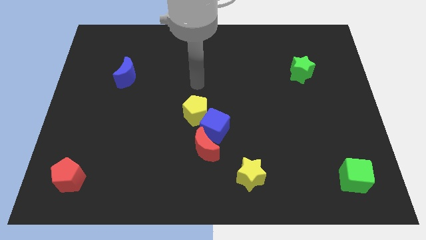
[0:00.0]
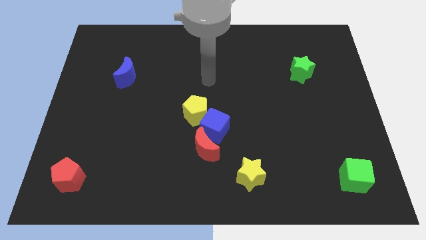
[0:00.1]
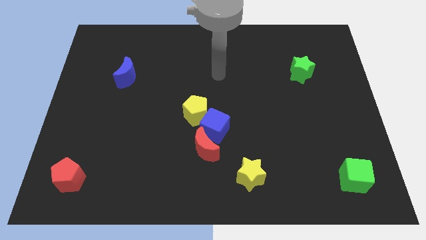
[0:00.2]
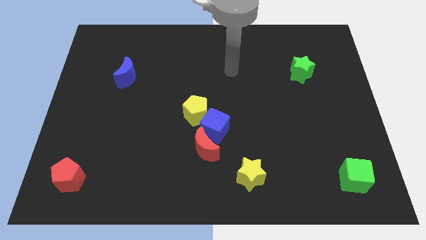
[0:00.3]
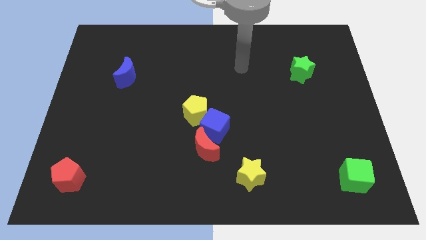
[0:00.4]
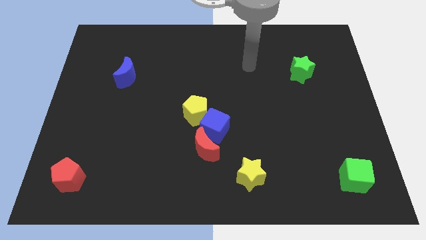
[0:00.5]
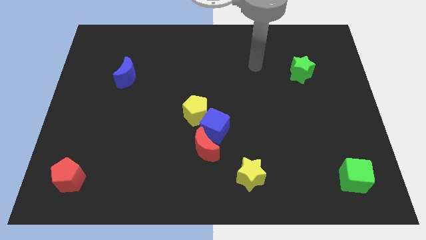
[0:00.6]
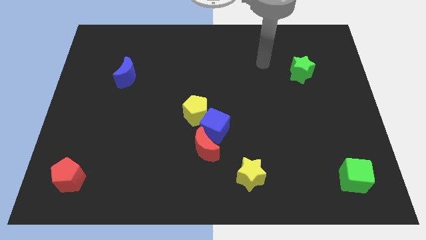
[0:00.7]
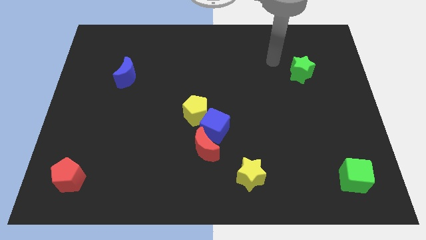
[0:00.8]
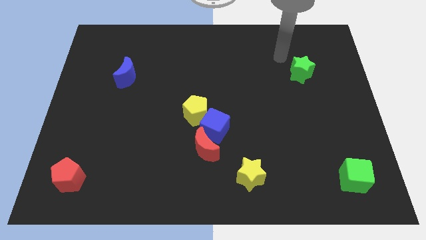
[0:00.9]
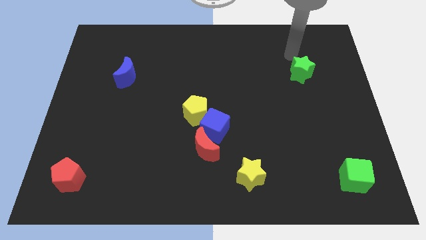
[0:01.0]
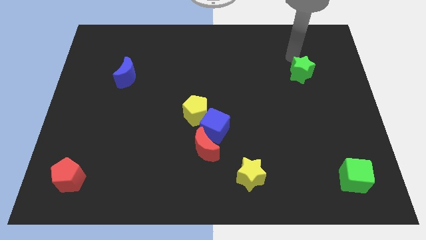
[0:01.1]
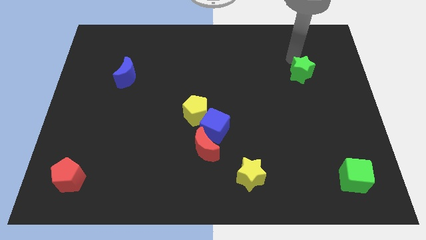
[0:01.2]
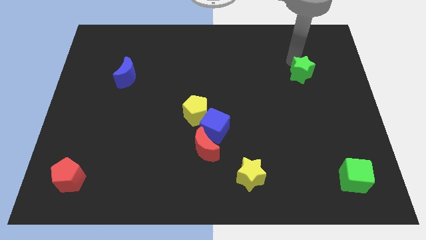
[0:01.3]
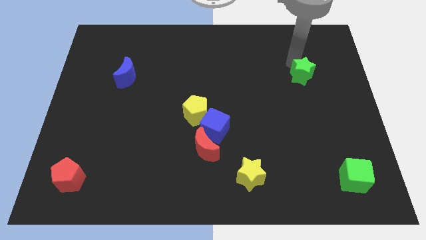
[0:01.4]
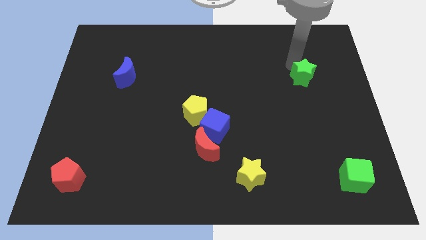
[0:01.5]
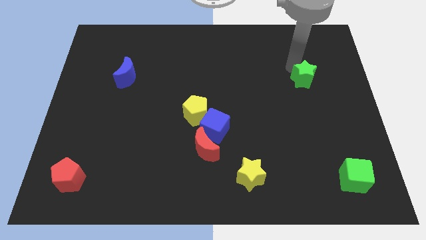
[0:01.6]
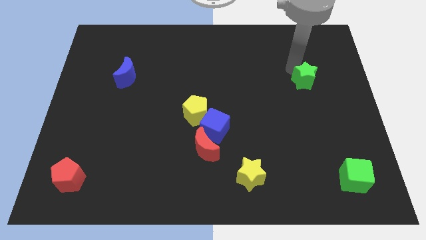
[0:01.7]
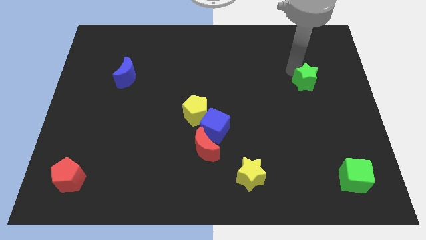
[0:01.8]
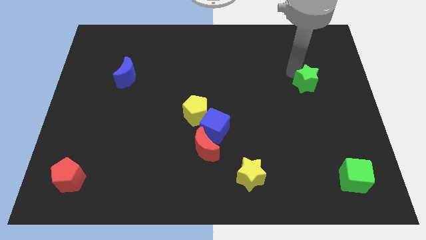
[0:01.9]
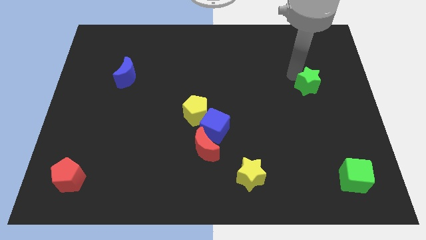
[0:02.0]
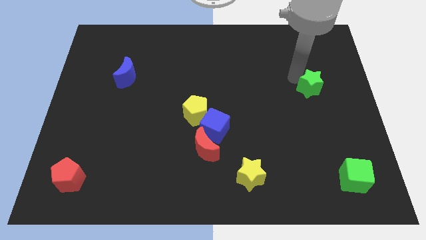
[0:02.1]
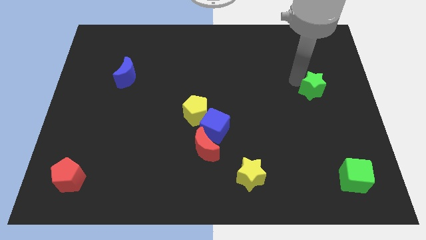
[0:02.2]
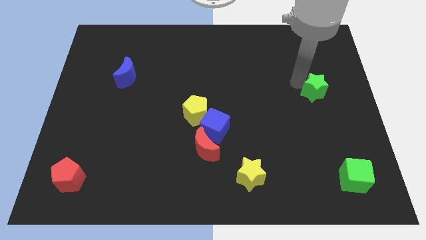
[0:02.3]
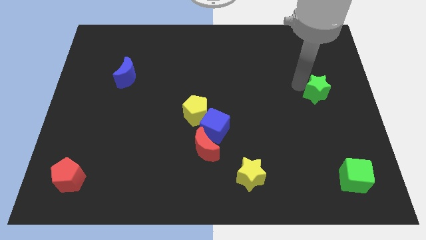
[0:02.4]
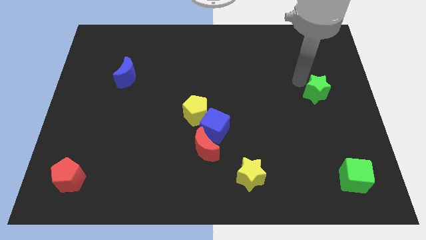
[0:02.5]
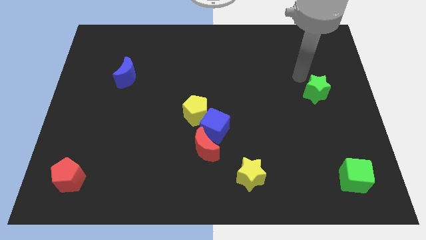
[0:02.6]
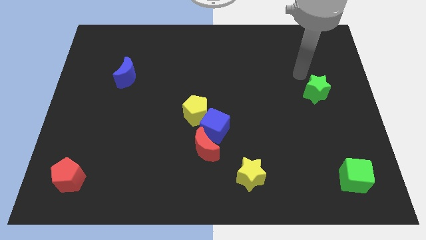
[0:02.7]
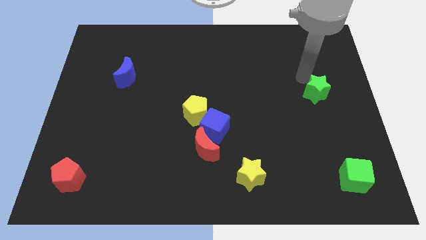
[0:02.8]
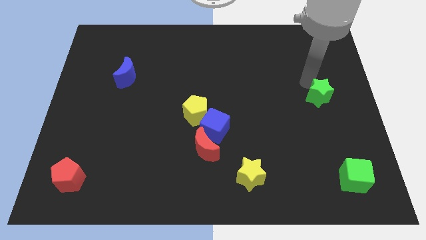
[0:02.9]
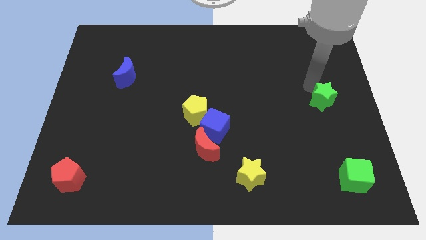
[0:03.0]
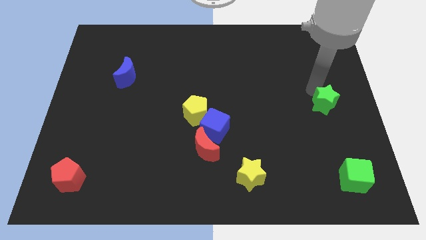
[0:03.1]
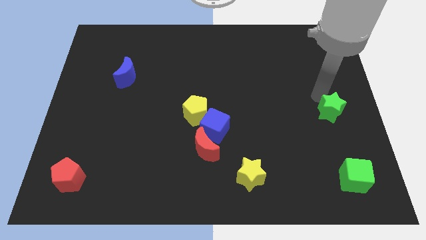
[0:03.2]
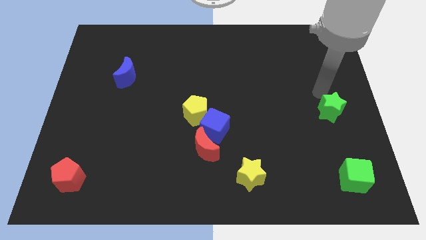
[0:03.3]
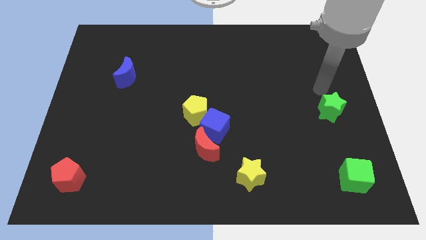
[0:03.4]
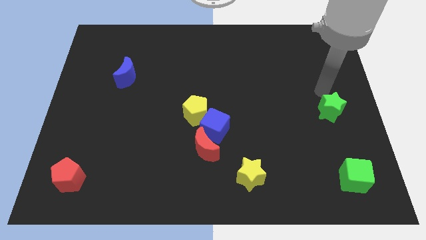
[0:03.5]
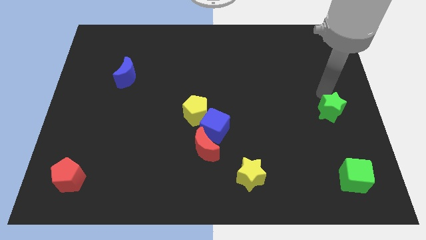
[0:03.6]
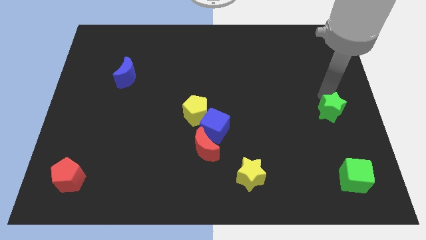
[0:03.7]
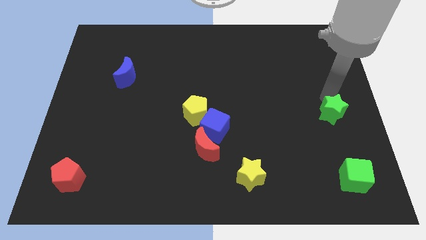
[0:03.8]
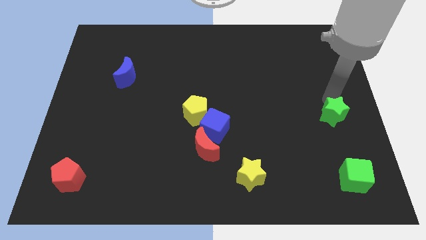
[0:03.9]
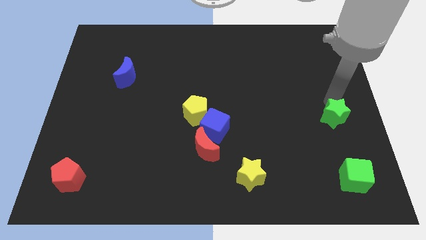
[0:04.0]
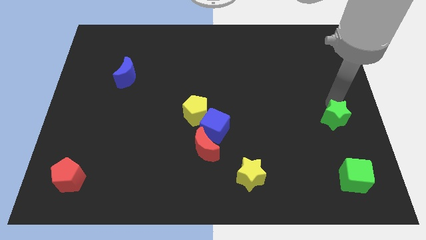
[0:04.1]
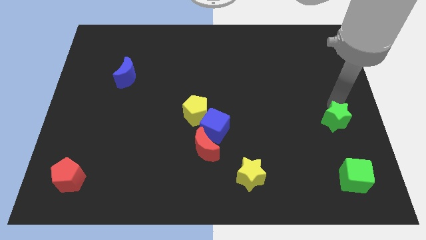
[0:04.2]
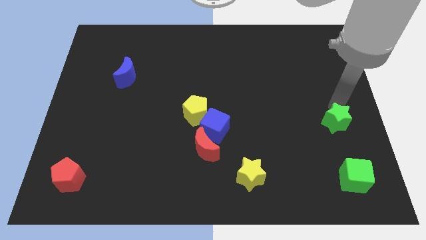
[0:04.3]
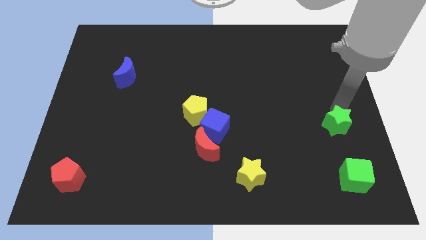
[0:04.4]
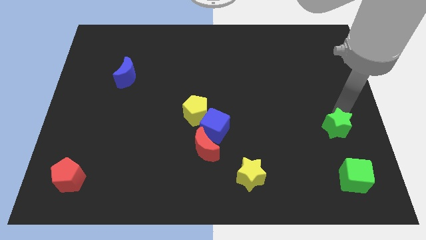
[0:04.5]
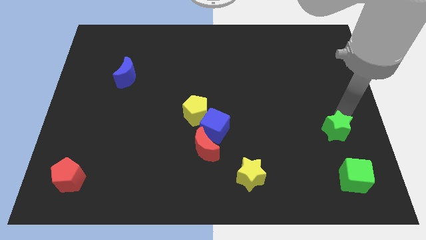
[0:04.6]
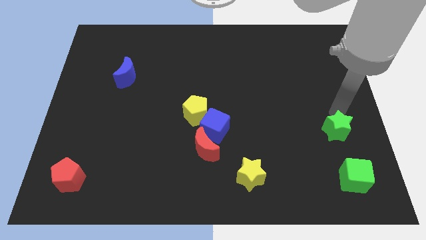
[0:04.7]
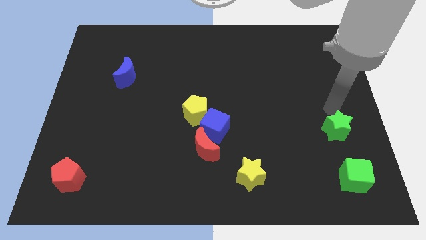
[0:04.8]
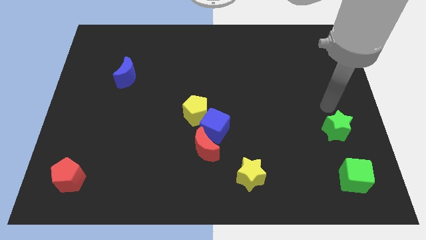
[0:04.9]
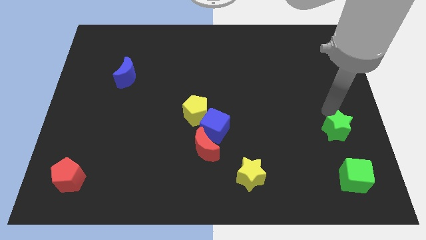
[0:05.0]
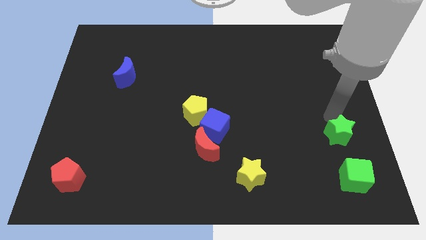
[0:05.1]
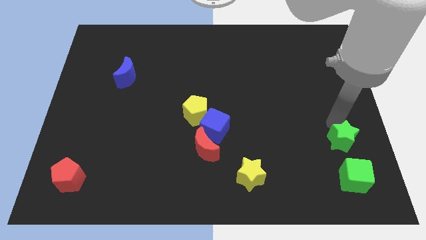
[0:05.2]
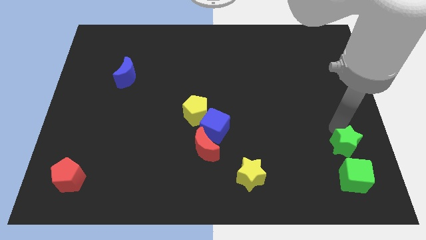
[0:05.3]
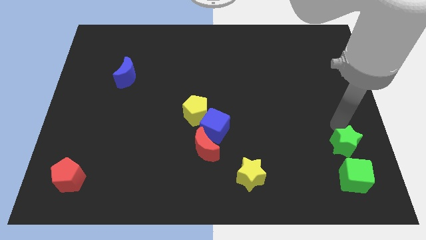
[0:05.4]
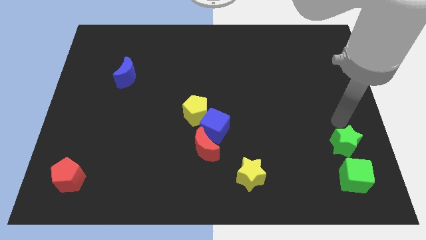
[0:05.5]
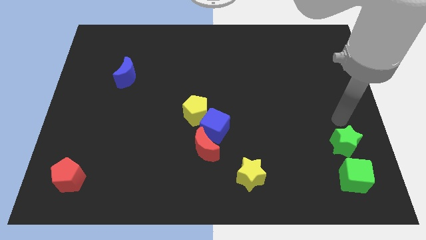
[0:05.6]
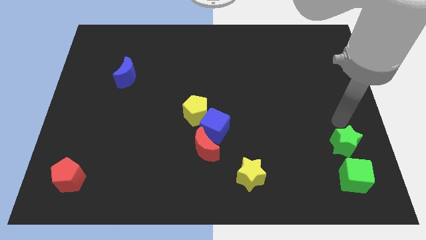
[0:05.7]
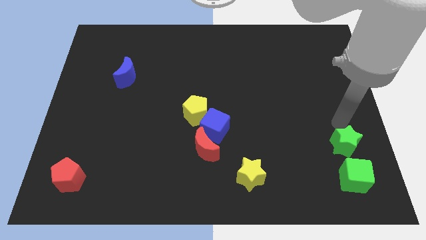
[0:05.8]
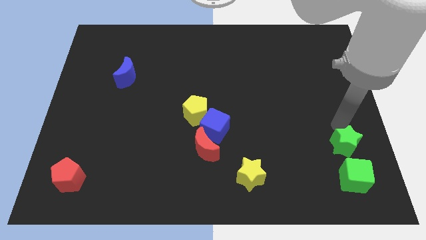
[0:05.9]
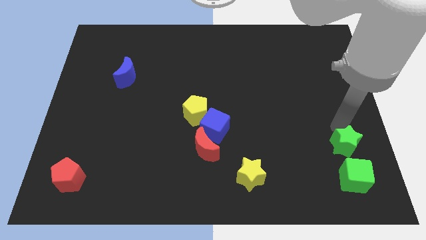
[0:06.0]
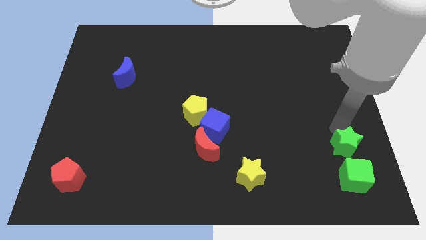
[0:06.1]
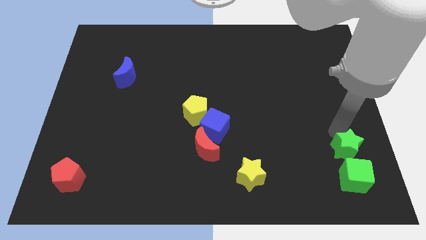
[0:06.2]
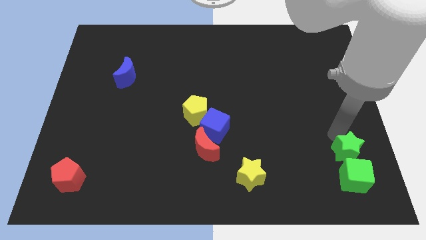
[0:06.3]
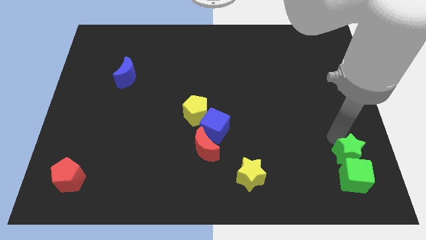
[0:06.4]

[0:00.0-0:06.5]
put the green star to the green cube
